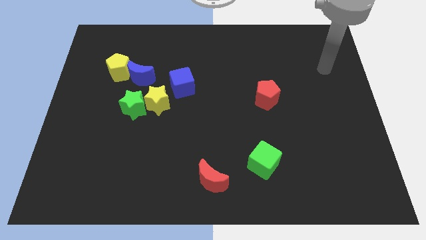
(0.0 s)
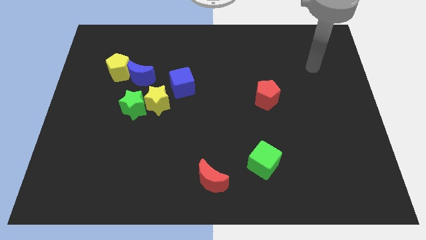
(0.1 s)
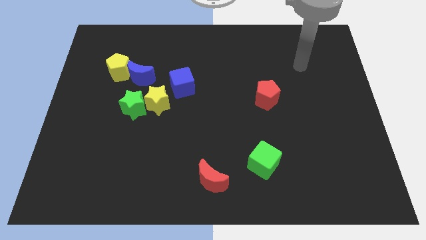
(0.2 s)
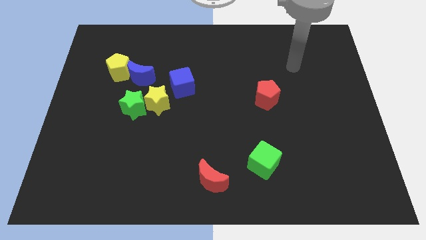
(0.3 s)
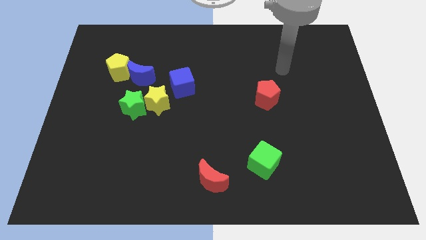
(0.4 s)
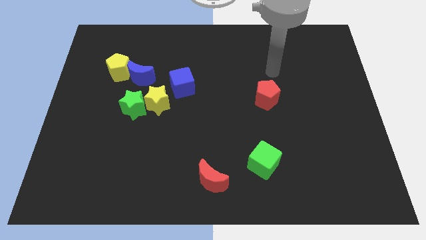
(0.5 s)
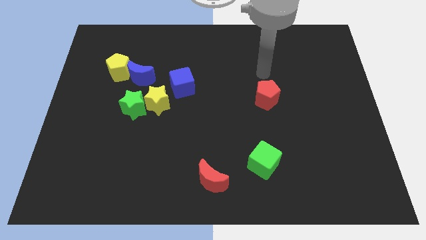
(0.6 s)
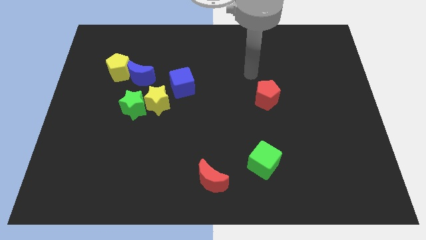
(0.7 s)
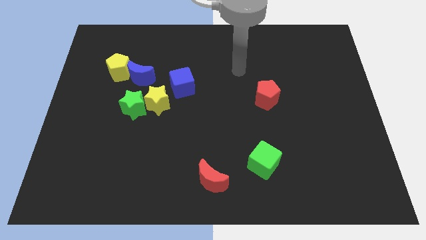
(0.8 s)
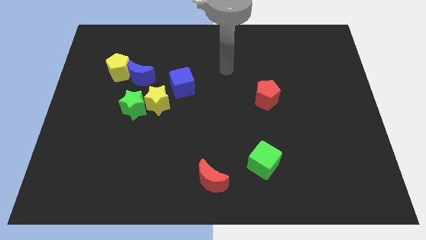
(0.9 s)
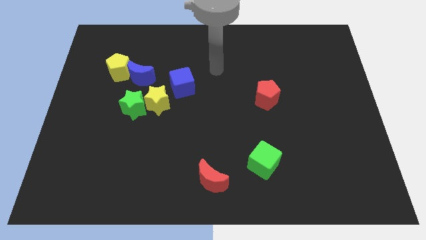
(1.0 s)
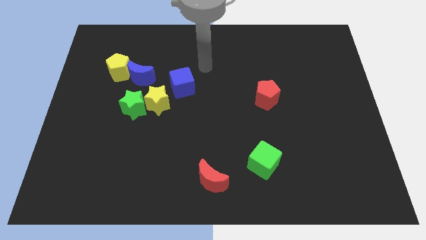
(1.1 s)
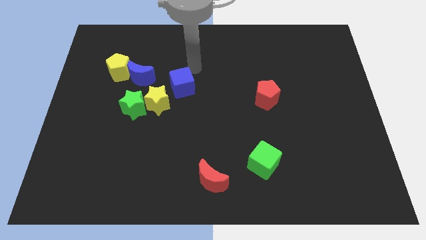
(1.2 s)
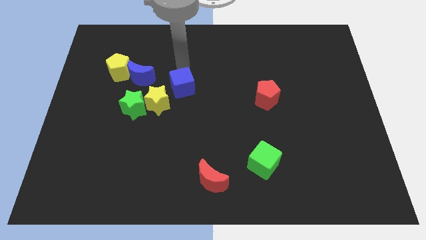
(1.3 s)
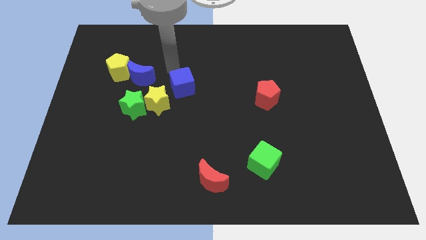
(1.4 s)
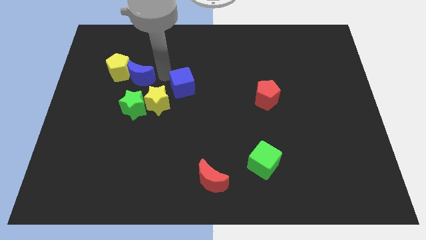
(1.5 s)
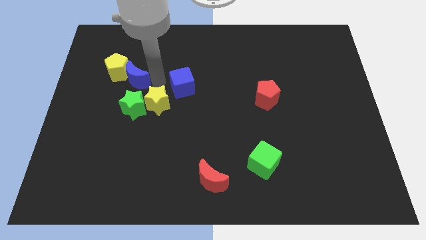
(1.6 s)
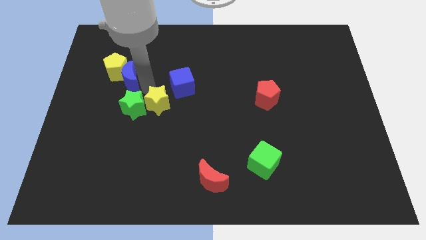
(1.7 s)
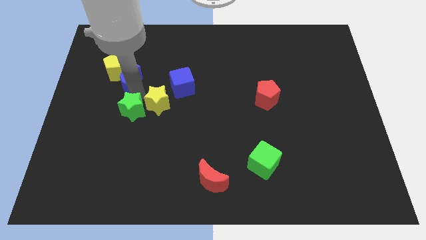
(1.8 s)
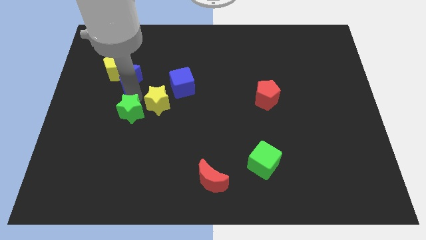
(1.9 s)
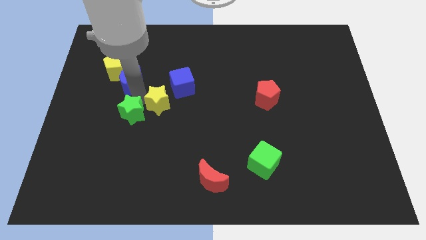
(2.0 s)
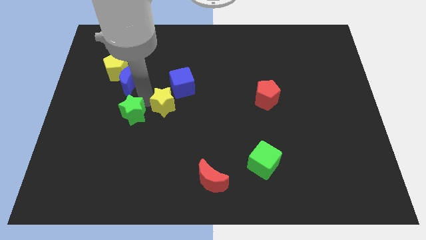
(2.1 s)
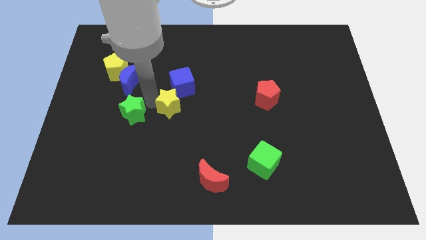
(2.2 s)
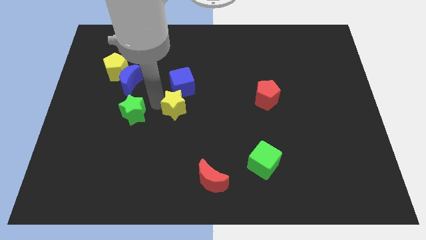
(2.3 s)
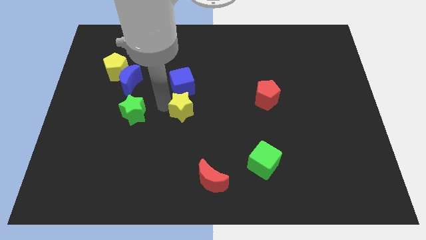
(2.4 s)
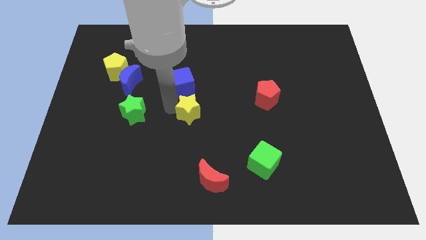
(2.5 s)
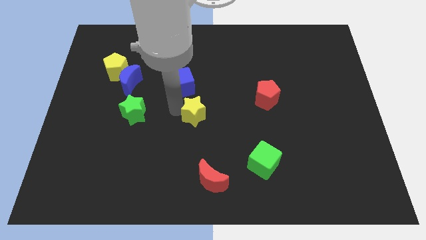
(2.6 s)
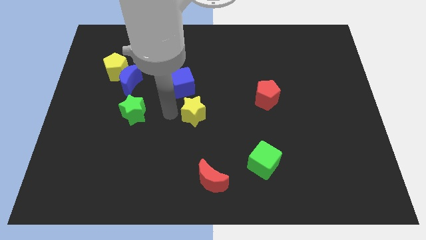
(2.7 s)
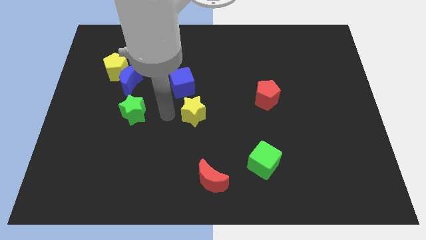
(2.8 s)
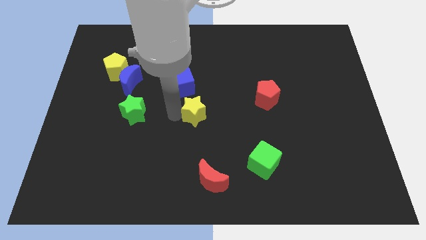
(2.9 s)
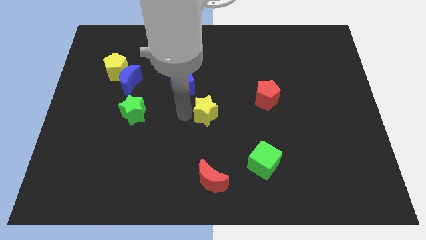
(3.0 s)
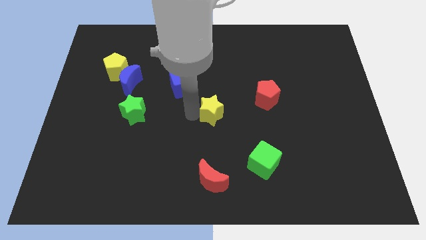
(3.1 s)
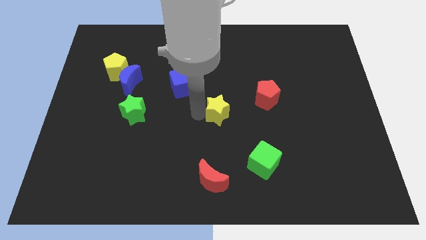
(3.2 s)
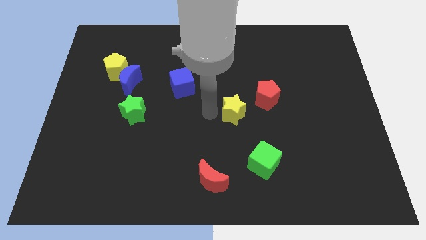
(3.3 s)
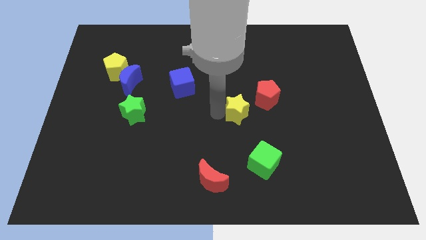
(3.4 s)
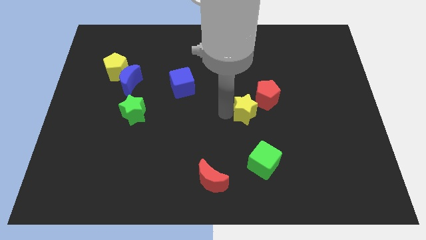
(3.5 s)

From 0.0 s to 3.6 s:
slide the yellow star to the right

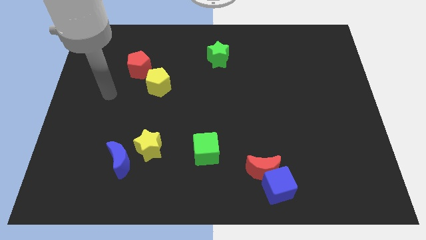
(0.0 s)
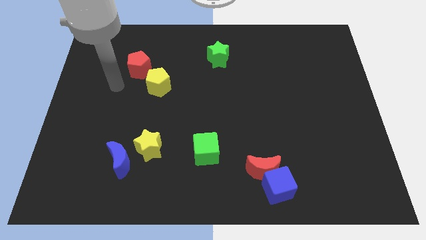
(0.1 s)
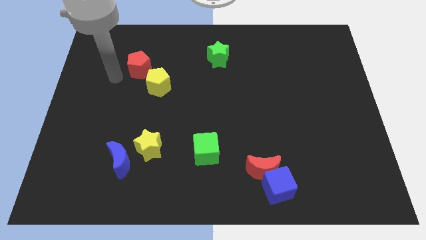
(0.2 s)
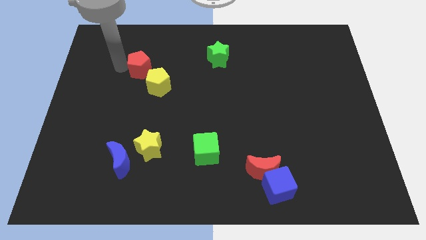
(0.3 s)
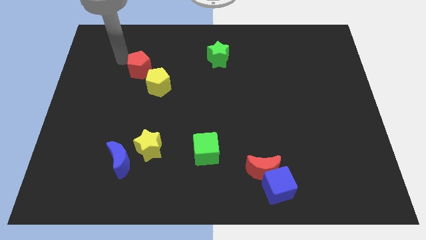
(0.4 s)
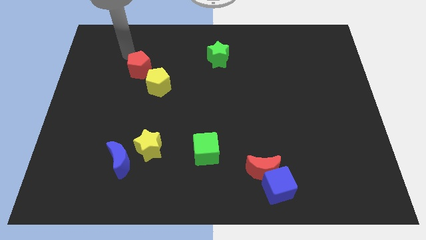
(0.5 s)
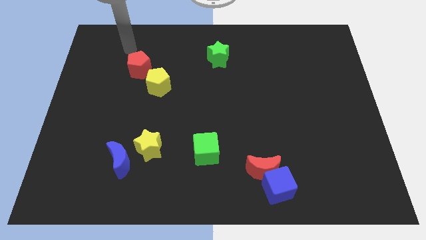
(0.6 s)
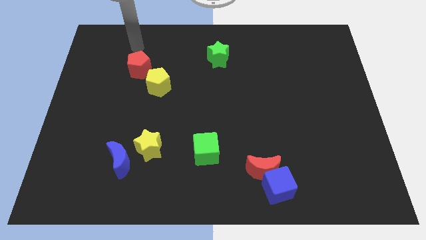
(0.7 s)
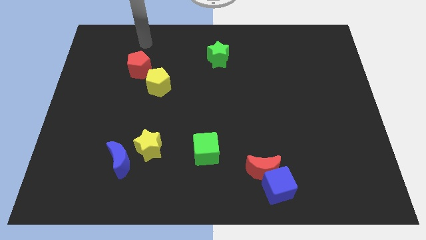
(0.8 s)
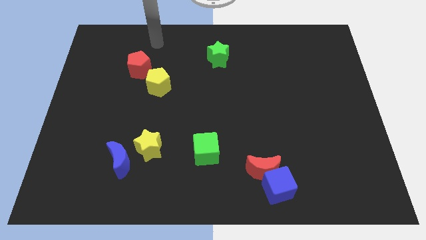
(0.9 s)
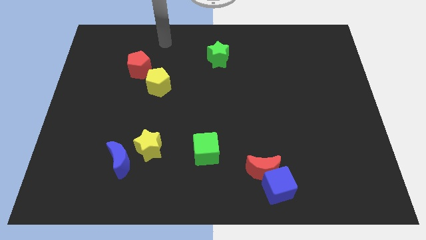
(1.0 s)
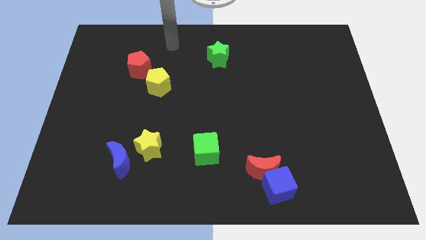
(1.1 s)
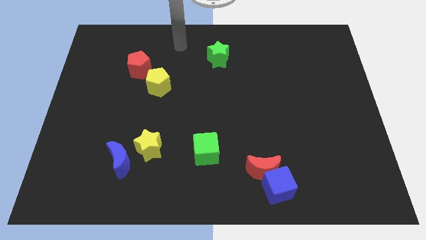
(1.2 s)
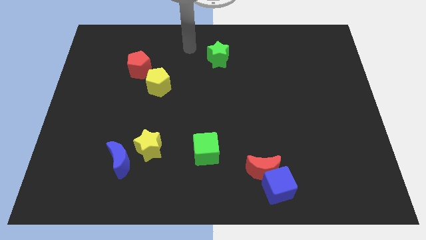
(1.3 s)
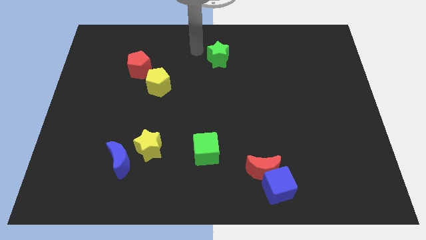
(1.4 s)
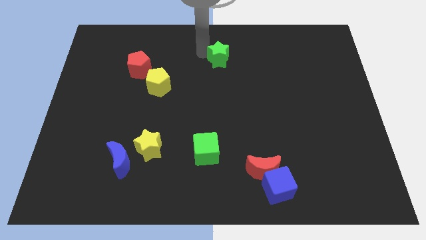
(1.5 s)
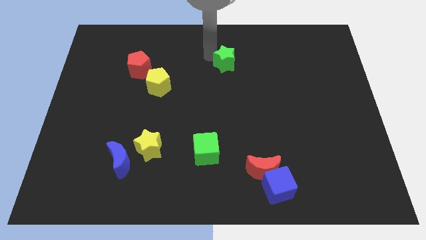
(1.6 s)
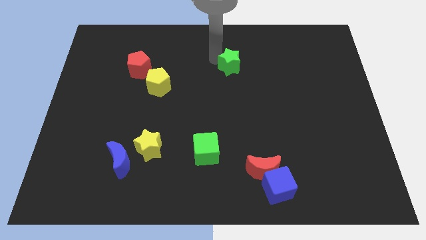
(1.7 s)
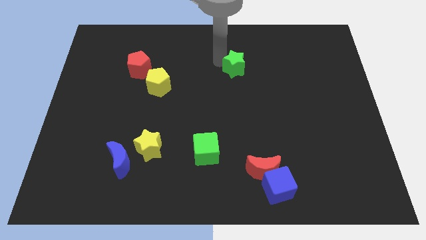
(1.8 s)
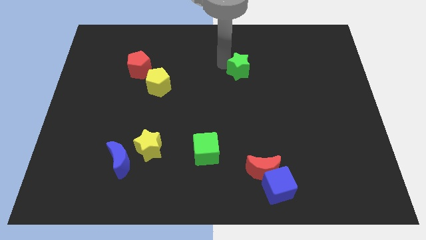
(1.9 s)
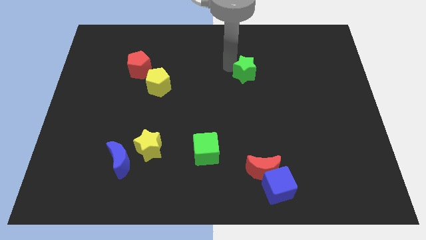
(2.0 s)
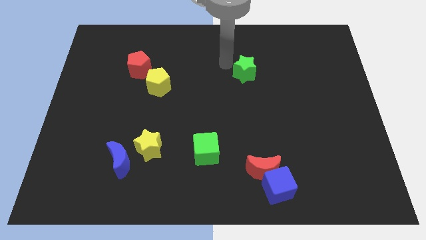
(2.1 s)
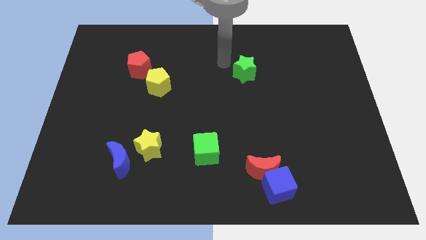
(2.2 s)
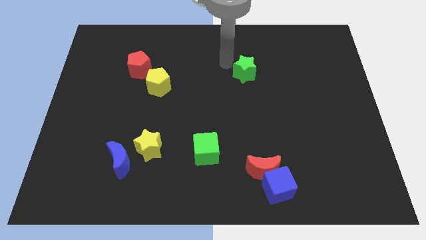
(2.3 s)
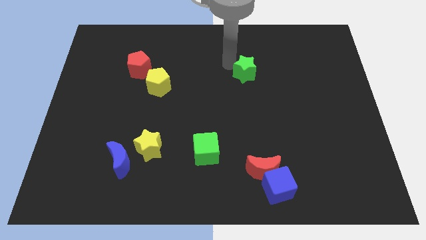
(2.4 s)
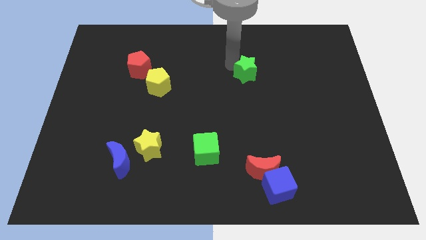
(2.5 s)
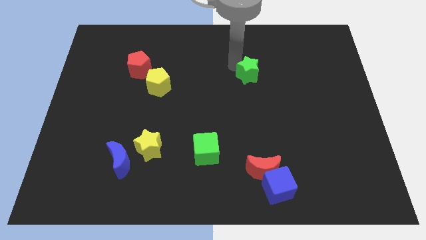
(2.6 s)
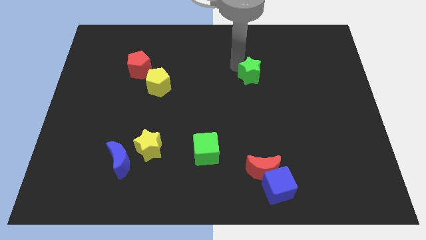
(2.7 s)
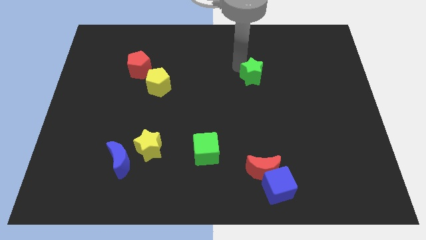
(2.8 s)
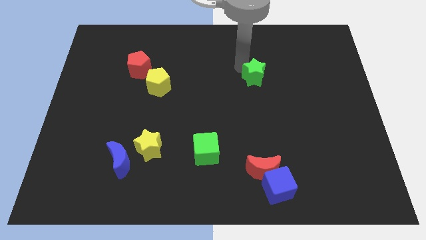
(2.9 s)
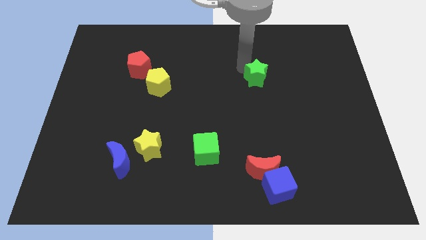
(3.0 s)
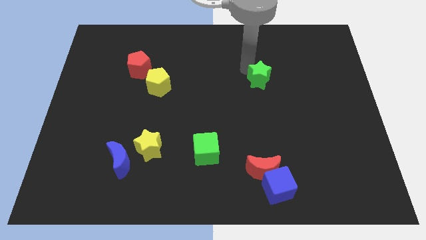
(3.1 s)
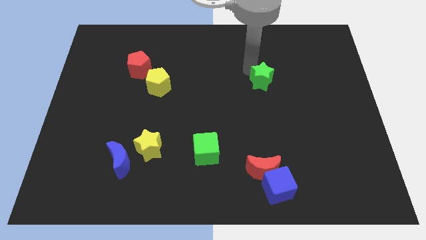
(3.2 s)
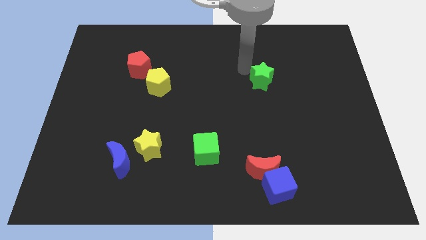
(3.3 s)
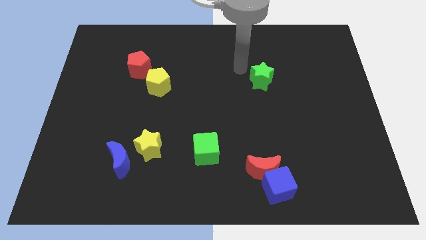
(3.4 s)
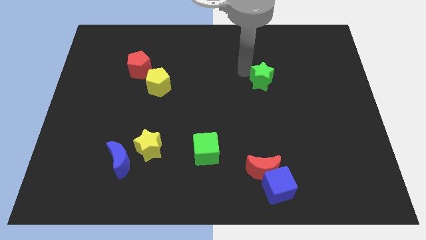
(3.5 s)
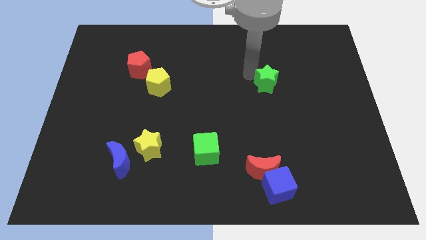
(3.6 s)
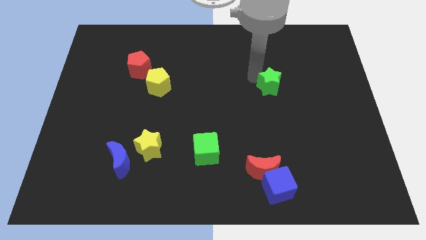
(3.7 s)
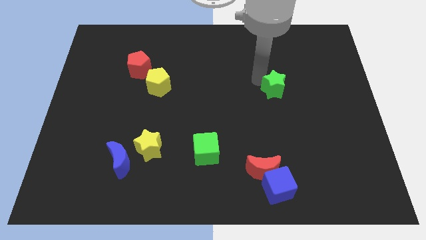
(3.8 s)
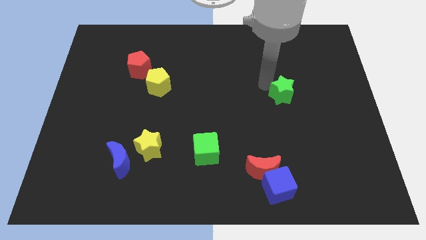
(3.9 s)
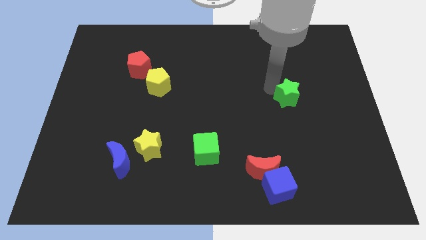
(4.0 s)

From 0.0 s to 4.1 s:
slide the green star diagonally down and to the right

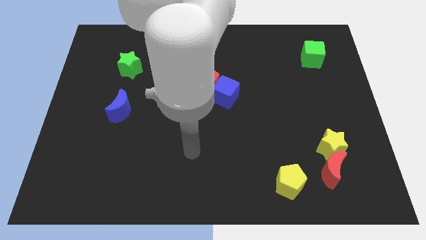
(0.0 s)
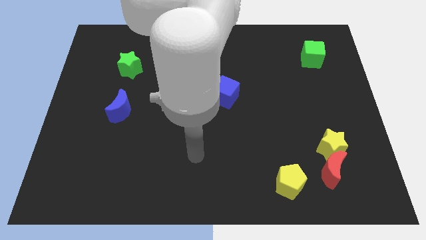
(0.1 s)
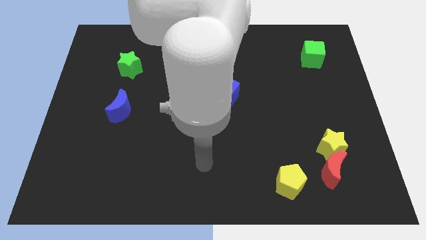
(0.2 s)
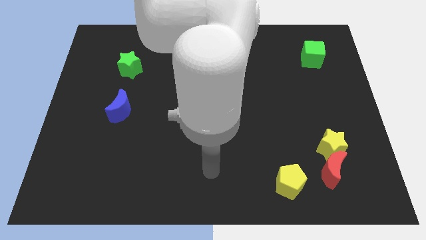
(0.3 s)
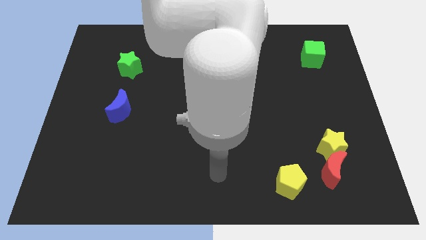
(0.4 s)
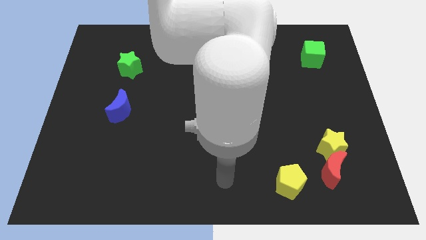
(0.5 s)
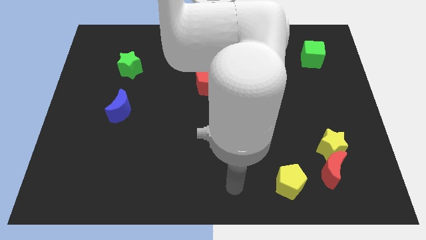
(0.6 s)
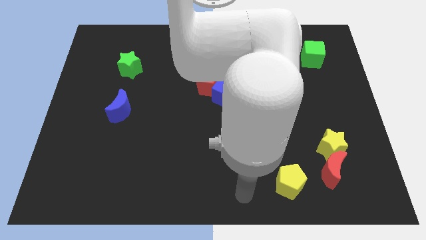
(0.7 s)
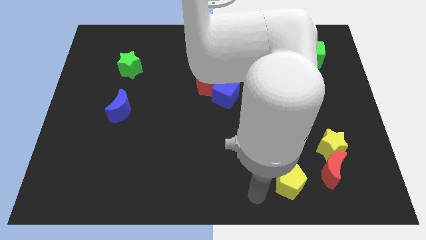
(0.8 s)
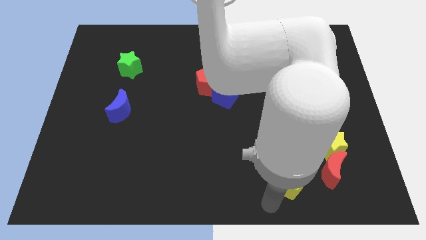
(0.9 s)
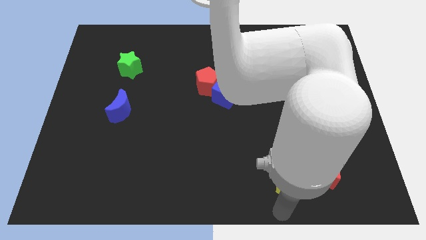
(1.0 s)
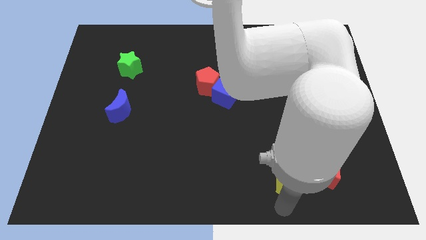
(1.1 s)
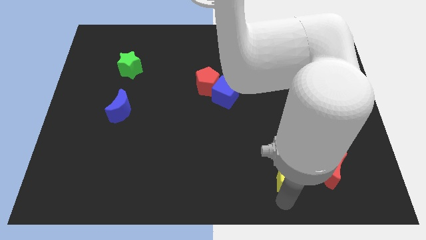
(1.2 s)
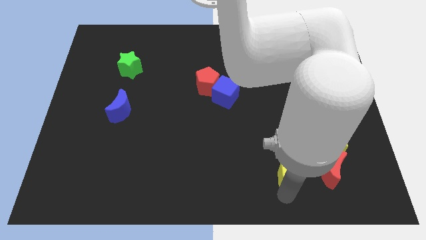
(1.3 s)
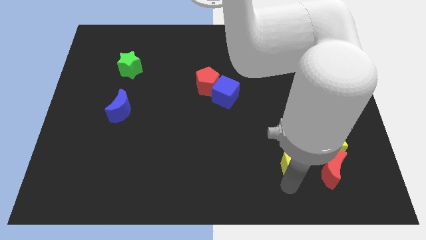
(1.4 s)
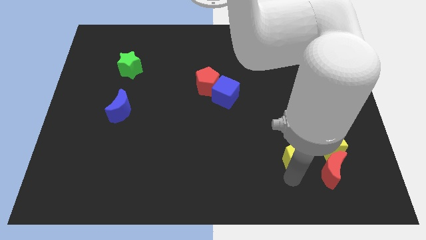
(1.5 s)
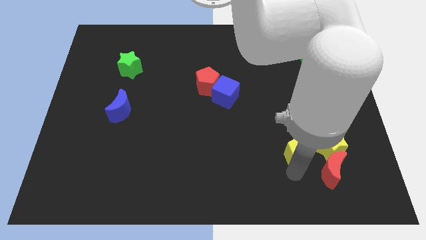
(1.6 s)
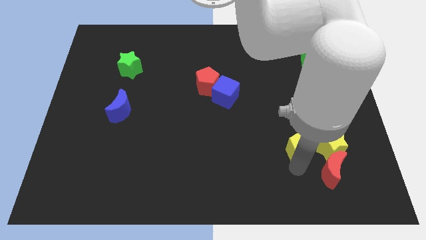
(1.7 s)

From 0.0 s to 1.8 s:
slightly move the yellow pentagon upwards
